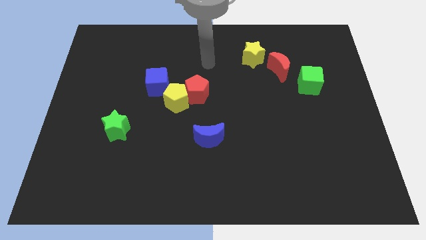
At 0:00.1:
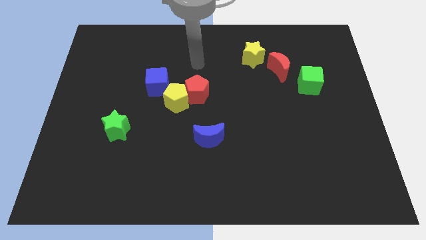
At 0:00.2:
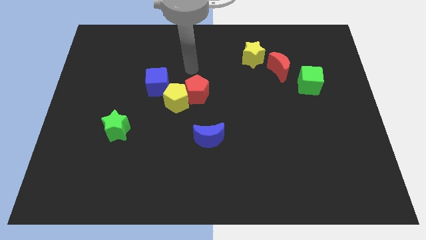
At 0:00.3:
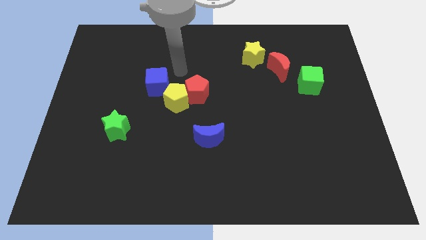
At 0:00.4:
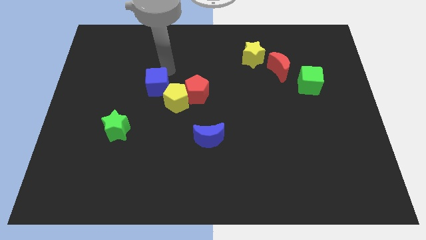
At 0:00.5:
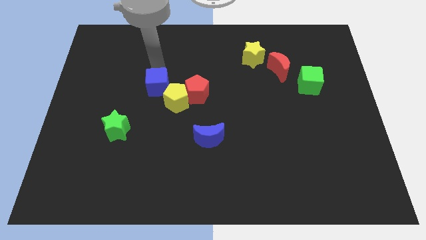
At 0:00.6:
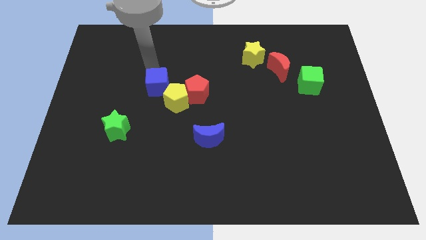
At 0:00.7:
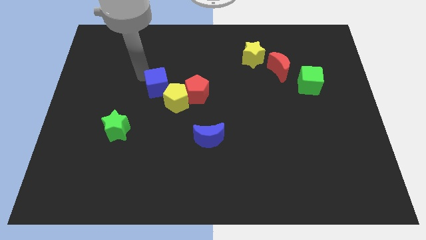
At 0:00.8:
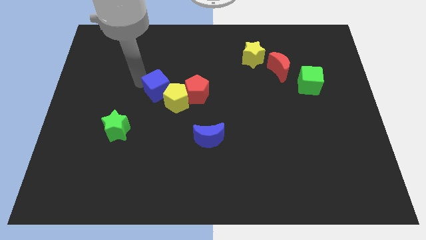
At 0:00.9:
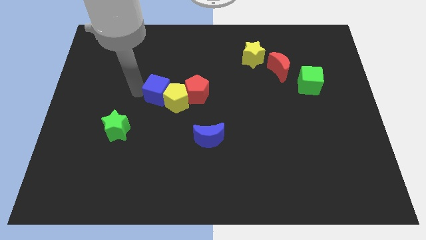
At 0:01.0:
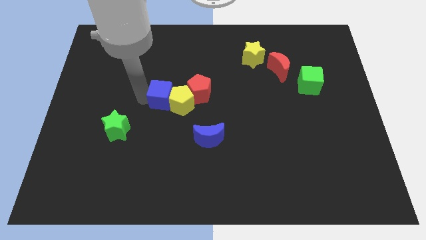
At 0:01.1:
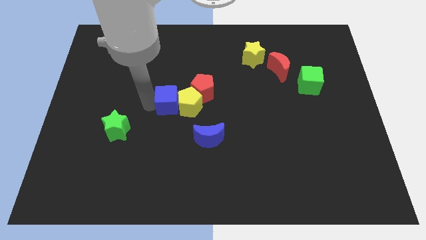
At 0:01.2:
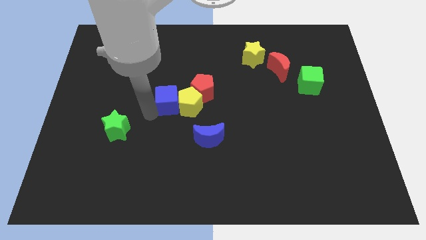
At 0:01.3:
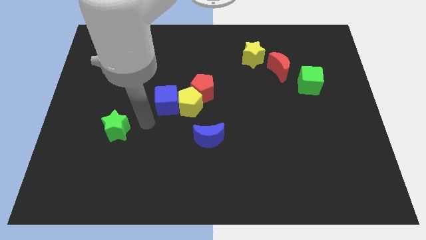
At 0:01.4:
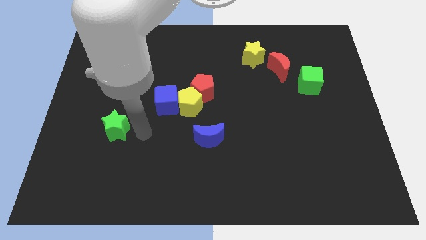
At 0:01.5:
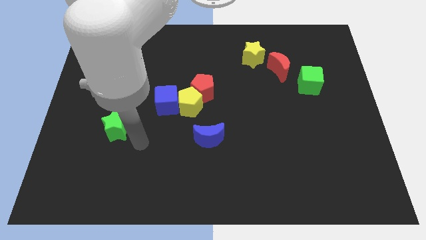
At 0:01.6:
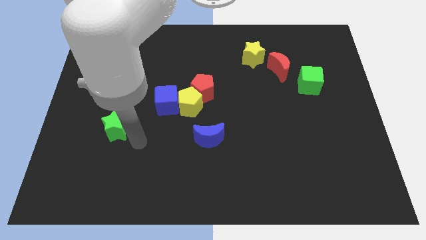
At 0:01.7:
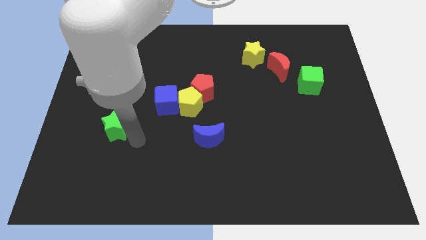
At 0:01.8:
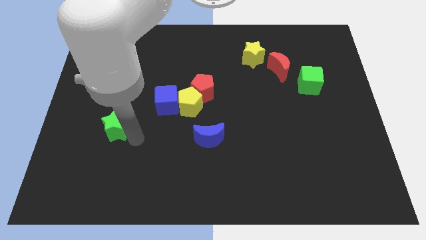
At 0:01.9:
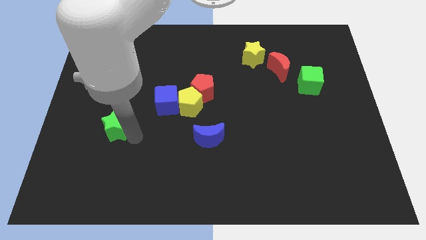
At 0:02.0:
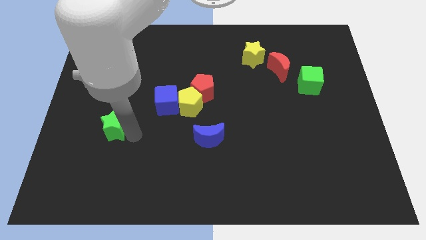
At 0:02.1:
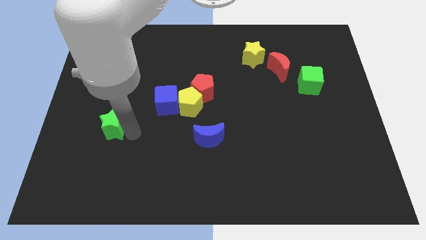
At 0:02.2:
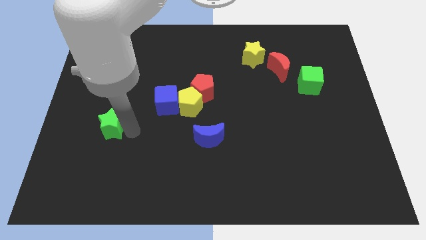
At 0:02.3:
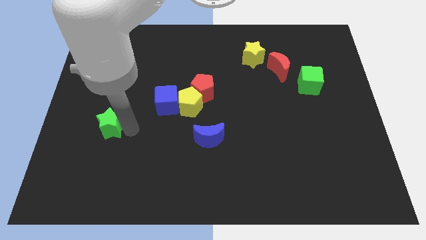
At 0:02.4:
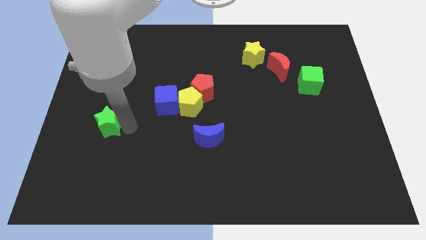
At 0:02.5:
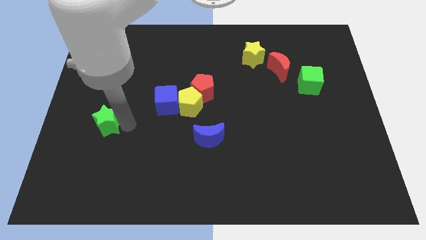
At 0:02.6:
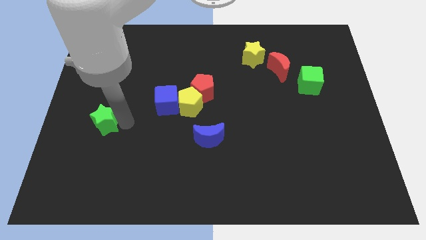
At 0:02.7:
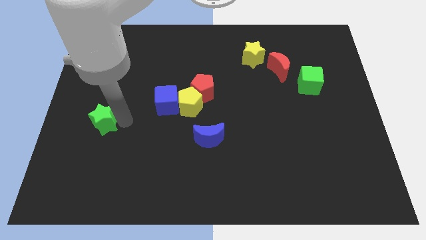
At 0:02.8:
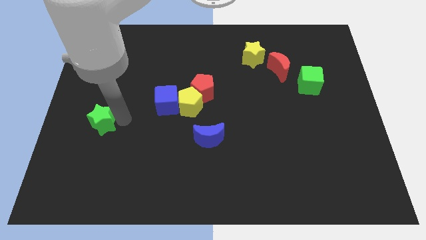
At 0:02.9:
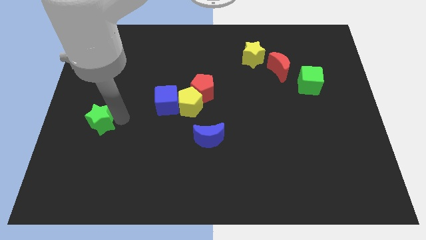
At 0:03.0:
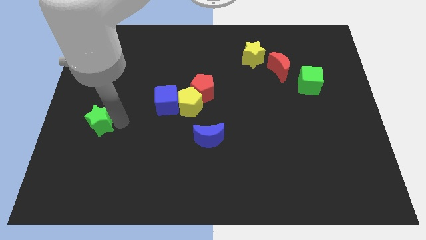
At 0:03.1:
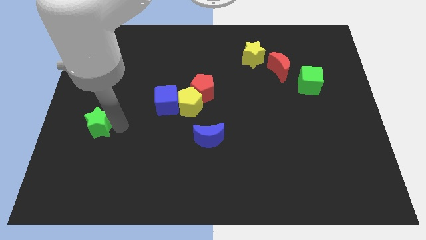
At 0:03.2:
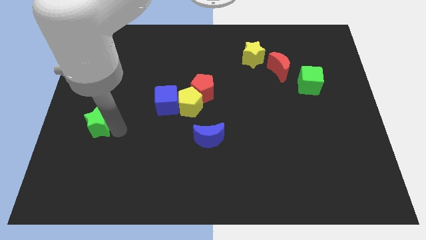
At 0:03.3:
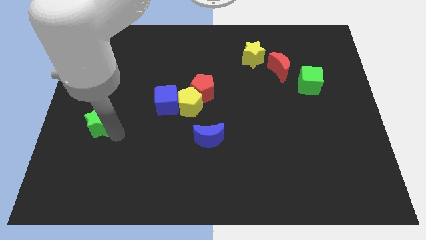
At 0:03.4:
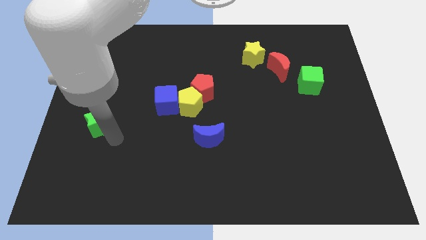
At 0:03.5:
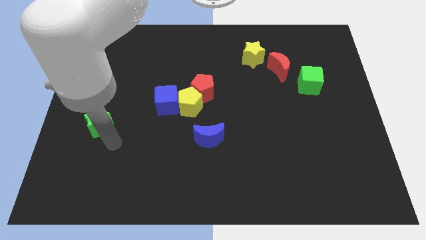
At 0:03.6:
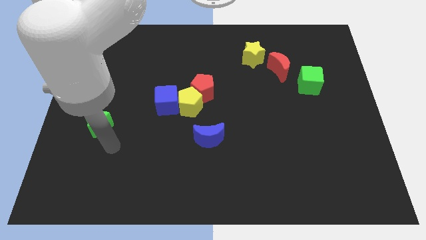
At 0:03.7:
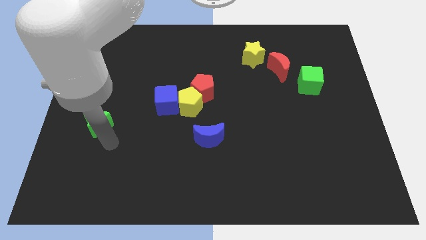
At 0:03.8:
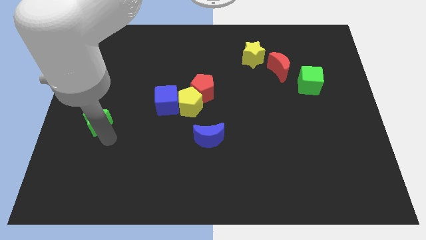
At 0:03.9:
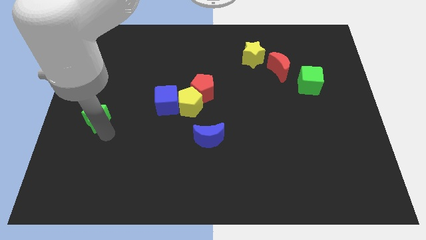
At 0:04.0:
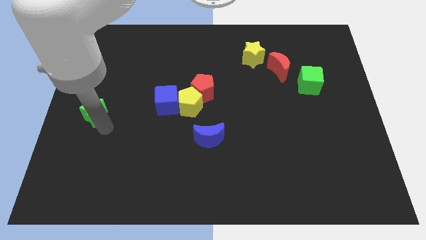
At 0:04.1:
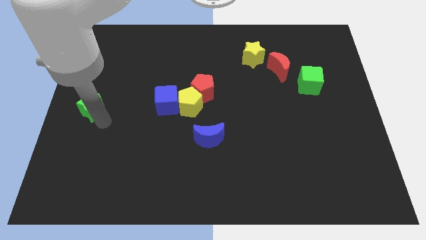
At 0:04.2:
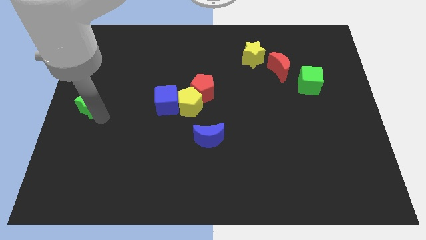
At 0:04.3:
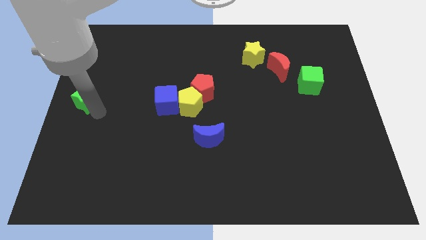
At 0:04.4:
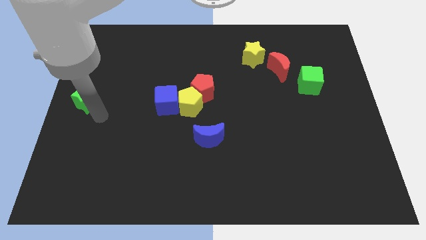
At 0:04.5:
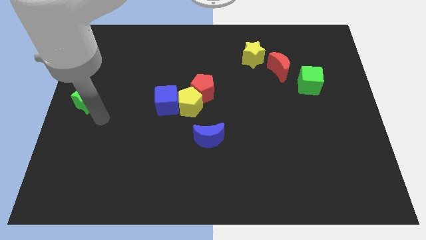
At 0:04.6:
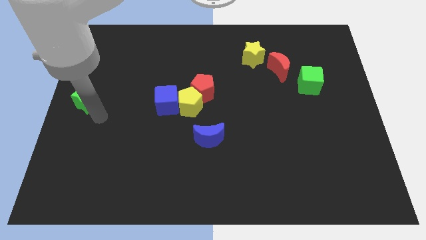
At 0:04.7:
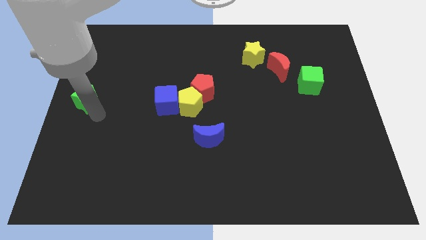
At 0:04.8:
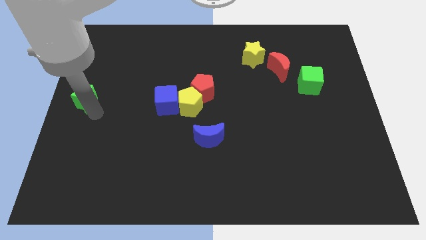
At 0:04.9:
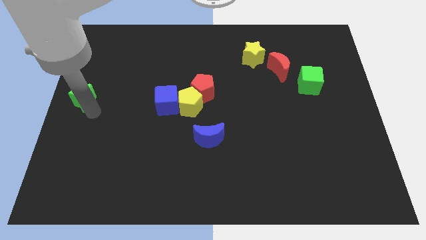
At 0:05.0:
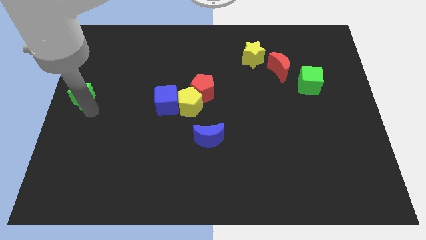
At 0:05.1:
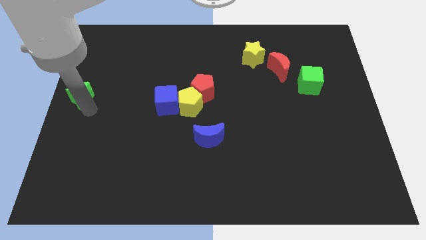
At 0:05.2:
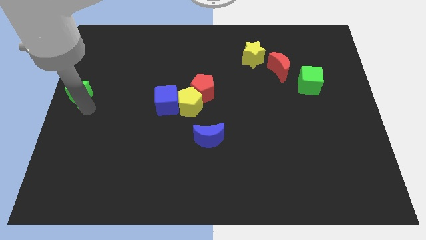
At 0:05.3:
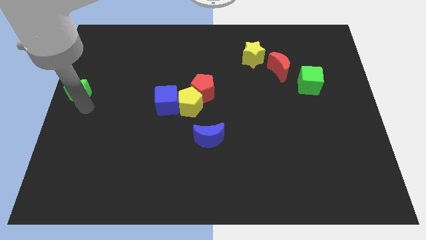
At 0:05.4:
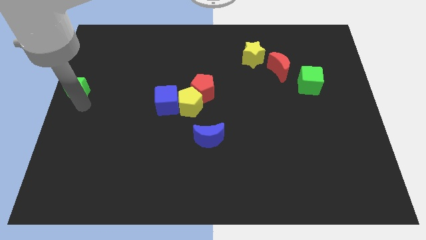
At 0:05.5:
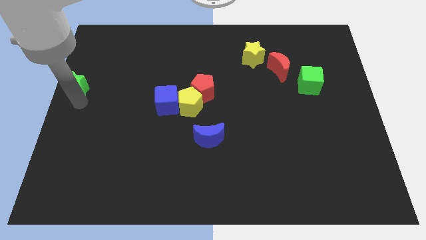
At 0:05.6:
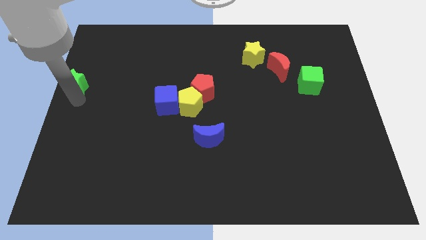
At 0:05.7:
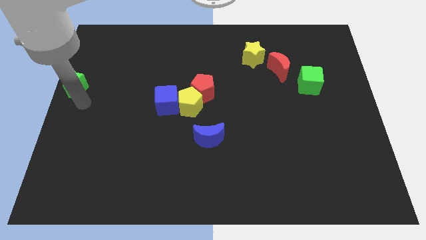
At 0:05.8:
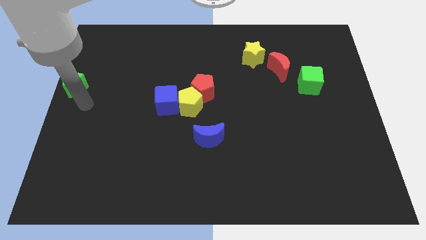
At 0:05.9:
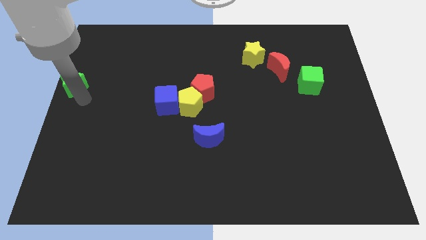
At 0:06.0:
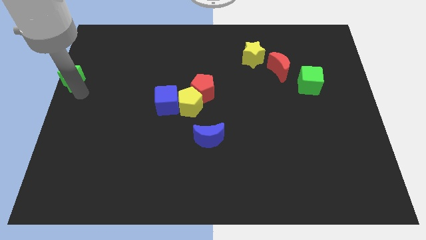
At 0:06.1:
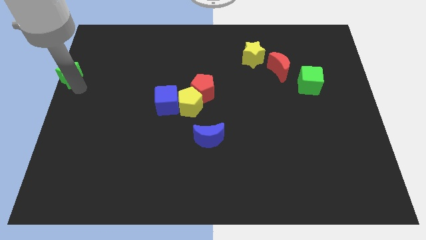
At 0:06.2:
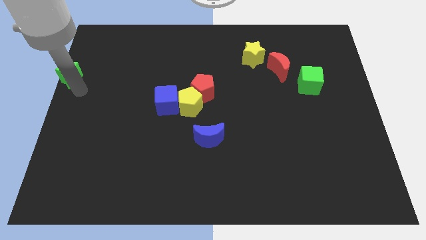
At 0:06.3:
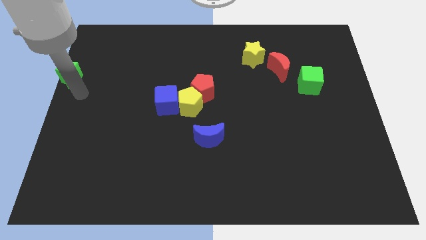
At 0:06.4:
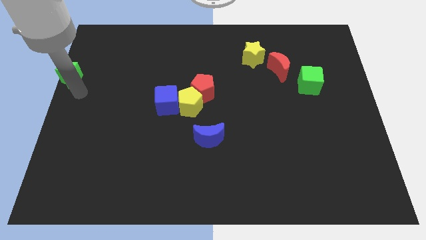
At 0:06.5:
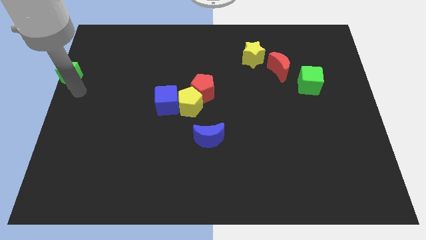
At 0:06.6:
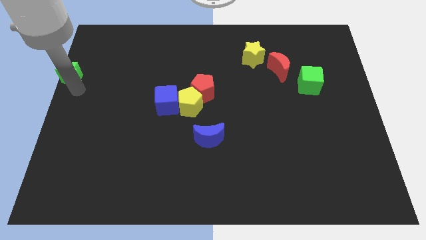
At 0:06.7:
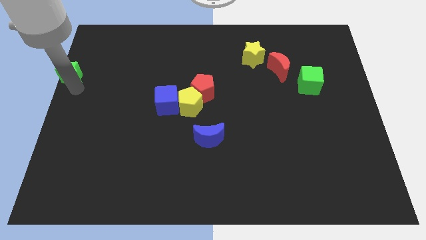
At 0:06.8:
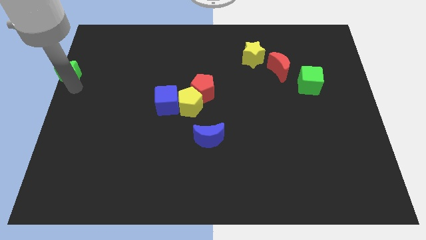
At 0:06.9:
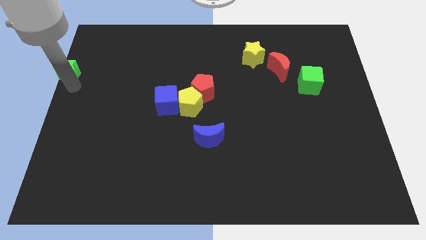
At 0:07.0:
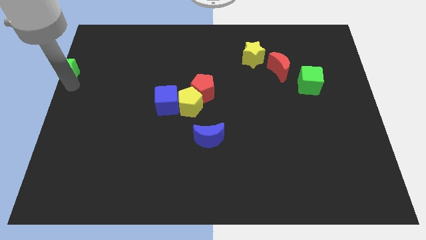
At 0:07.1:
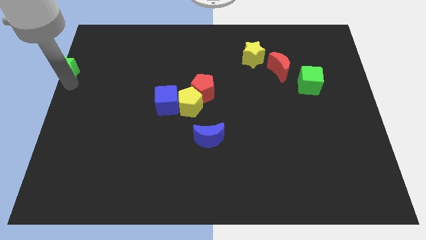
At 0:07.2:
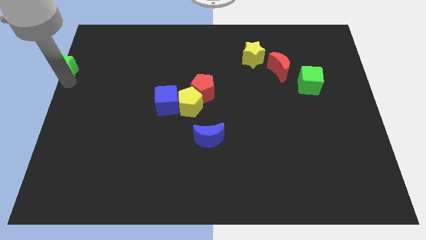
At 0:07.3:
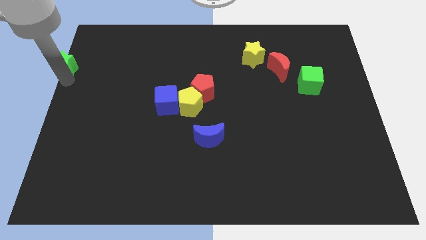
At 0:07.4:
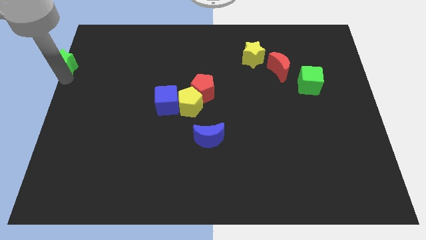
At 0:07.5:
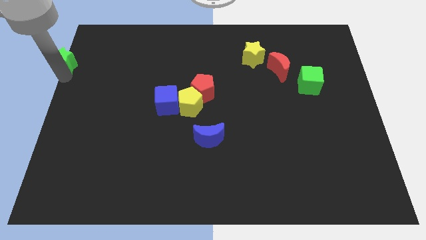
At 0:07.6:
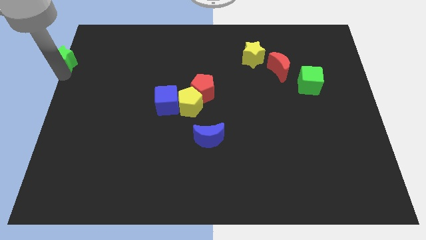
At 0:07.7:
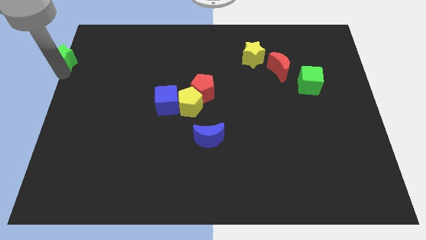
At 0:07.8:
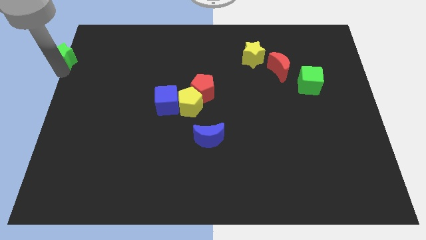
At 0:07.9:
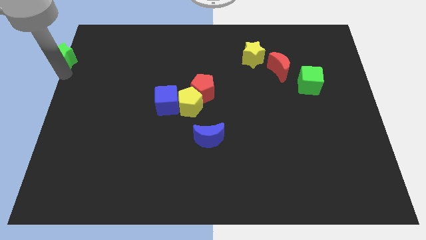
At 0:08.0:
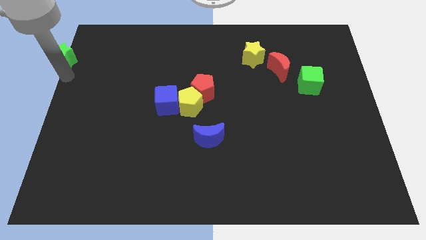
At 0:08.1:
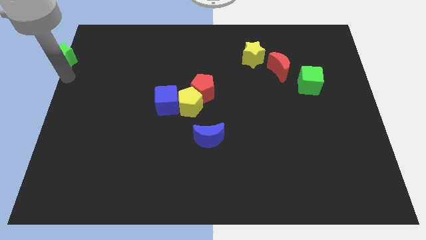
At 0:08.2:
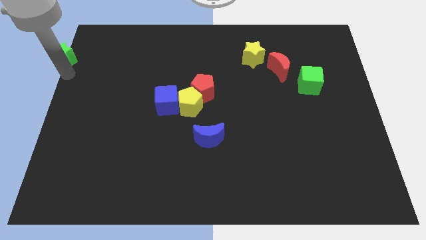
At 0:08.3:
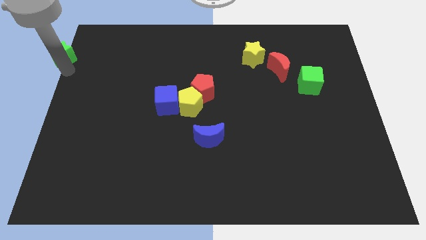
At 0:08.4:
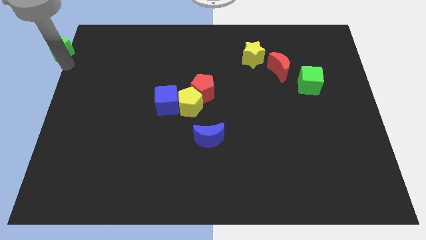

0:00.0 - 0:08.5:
put the green star to the top left
